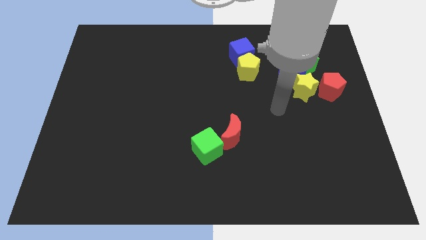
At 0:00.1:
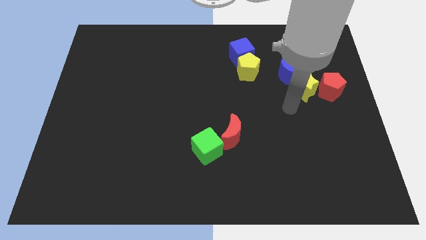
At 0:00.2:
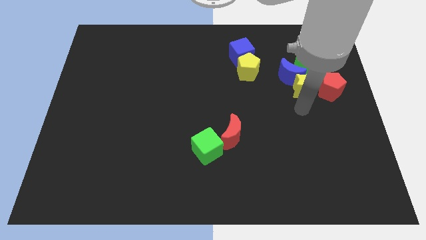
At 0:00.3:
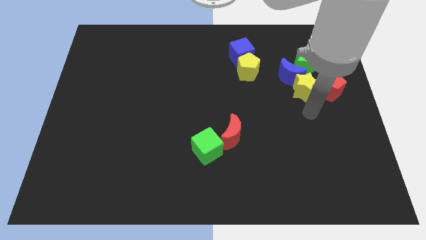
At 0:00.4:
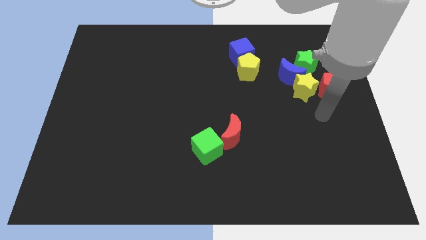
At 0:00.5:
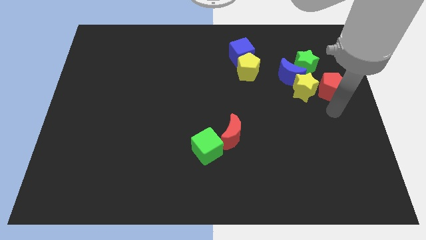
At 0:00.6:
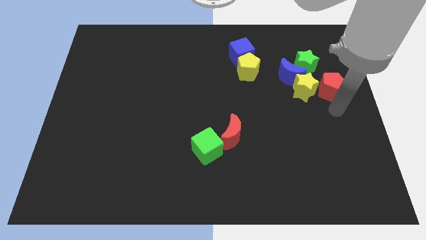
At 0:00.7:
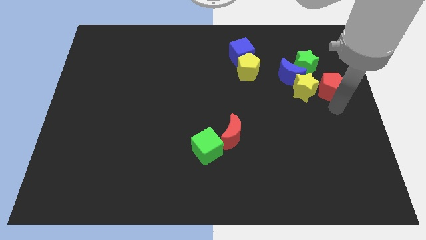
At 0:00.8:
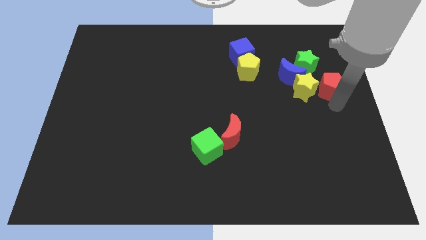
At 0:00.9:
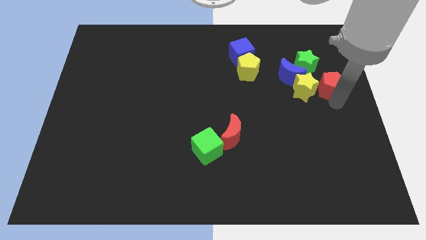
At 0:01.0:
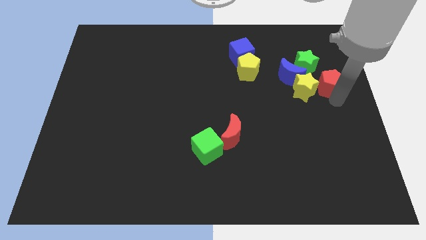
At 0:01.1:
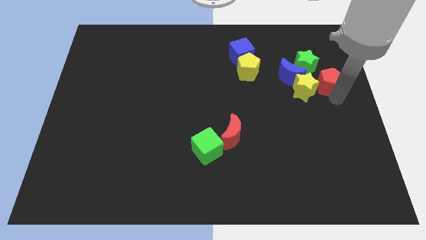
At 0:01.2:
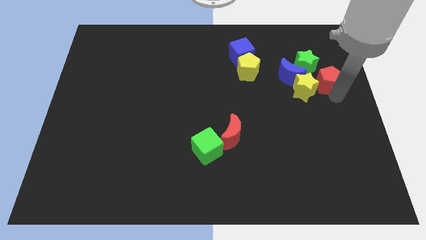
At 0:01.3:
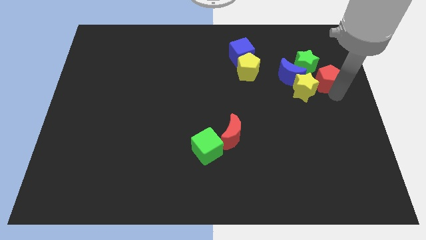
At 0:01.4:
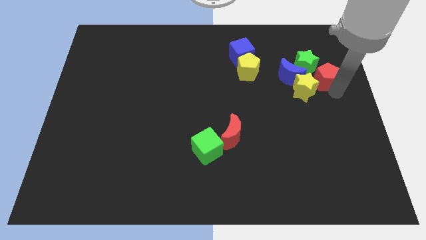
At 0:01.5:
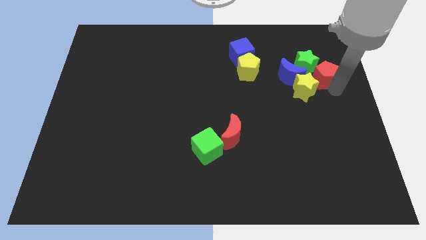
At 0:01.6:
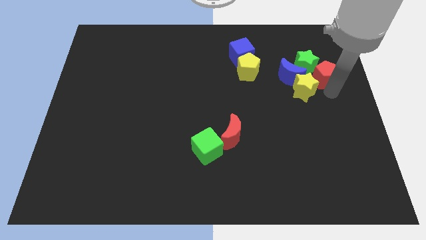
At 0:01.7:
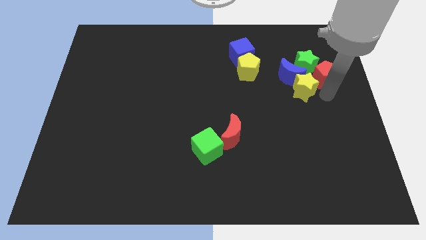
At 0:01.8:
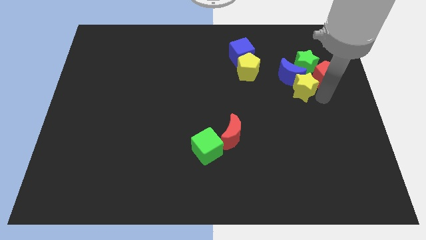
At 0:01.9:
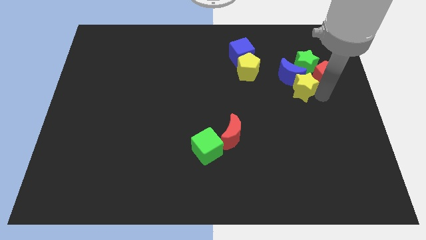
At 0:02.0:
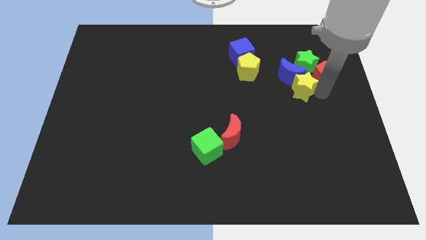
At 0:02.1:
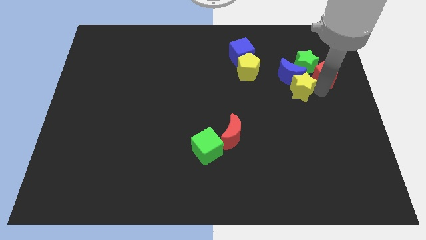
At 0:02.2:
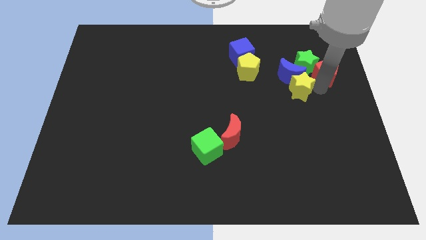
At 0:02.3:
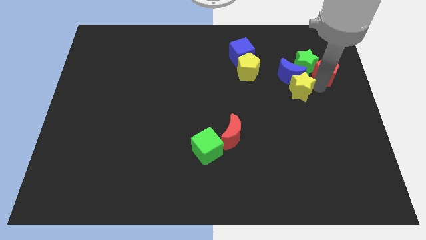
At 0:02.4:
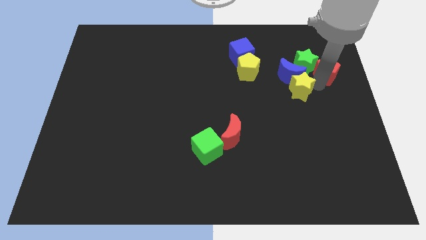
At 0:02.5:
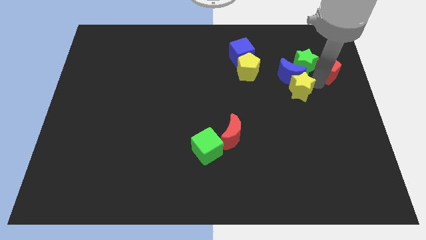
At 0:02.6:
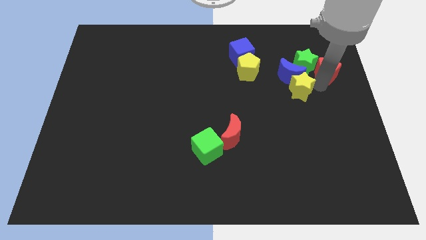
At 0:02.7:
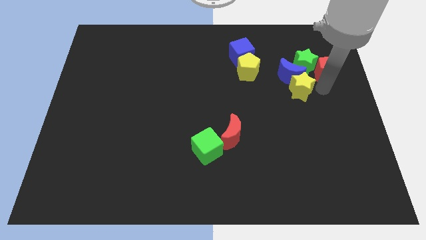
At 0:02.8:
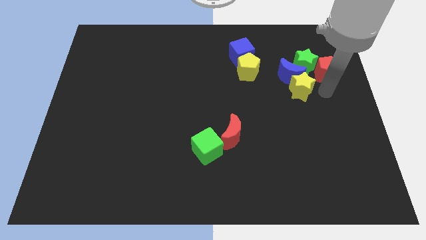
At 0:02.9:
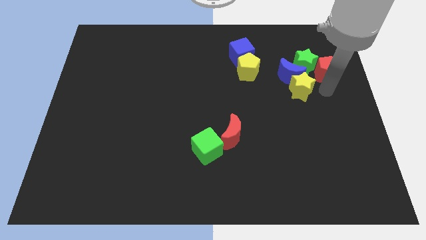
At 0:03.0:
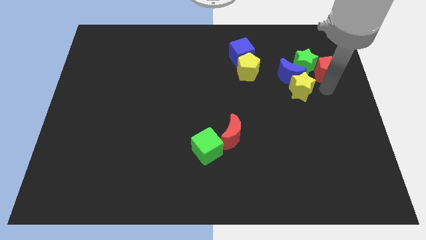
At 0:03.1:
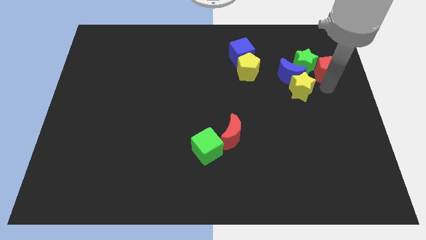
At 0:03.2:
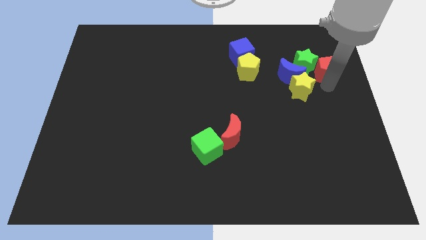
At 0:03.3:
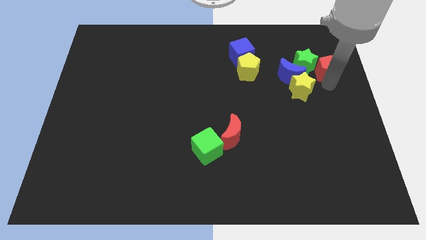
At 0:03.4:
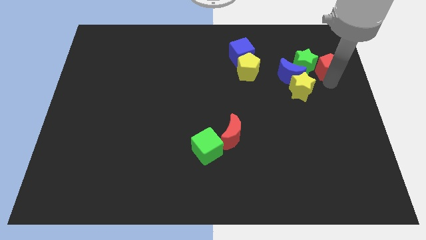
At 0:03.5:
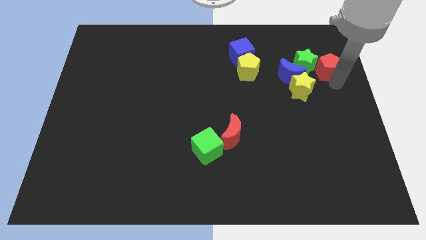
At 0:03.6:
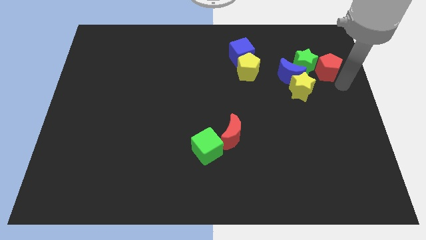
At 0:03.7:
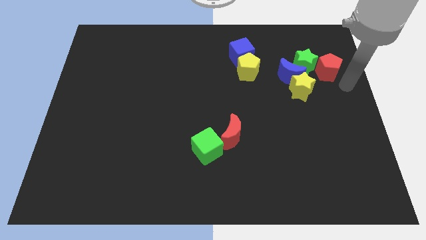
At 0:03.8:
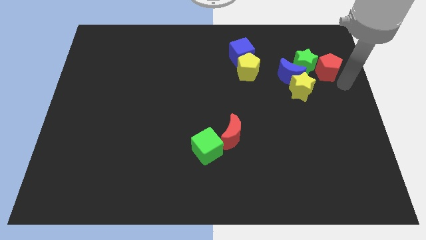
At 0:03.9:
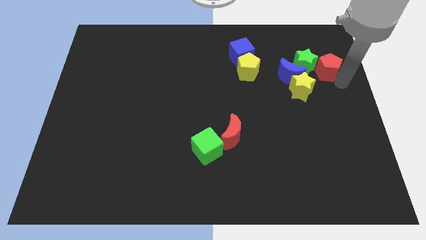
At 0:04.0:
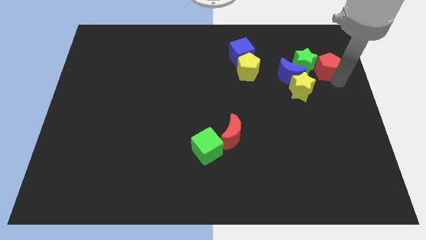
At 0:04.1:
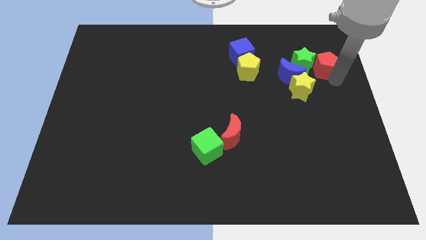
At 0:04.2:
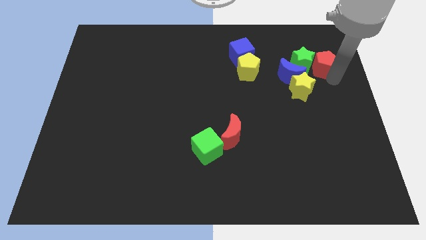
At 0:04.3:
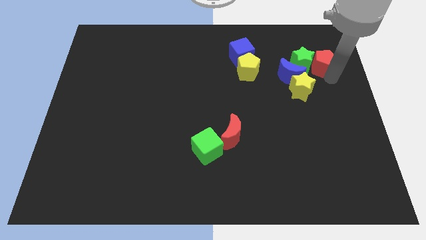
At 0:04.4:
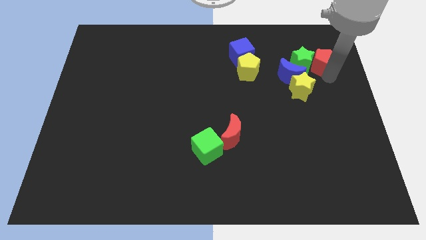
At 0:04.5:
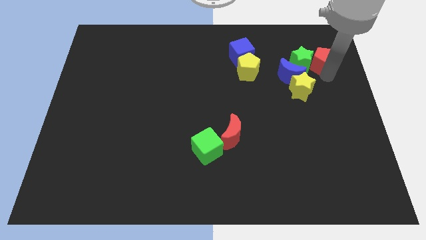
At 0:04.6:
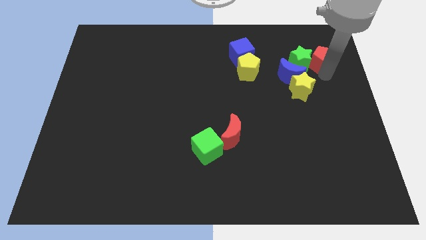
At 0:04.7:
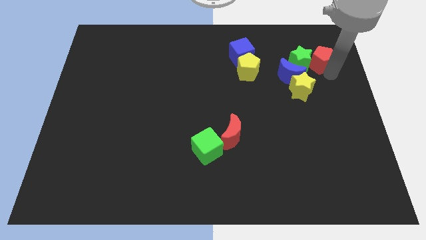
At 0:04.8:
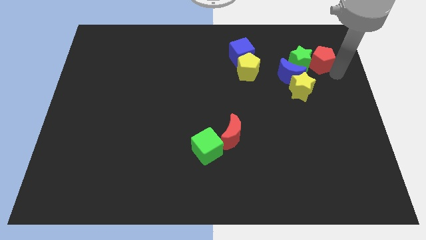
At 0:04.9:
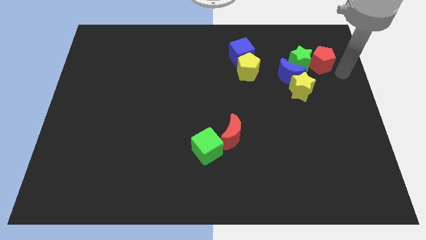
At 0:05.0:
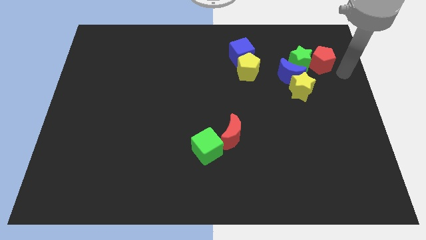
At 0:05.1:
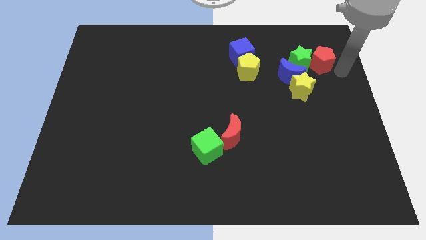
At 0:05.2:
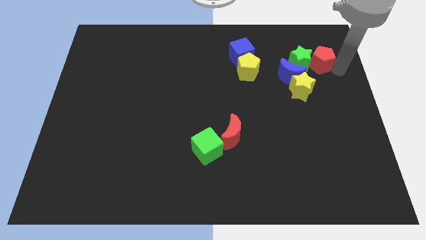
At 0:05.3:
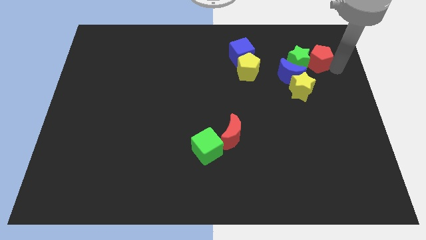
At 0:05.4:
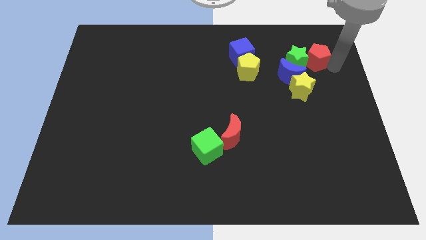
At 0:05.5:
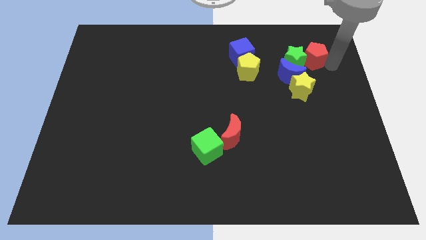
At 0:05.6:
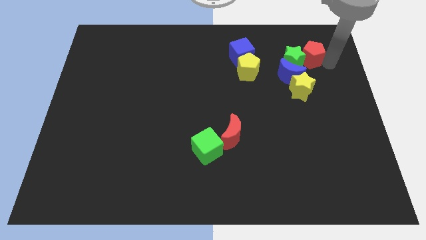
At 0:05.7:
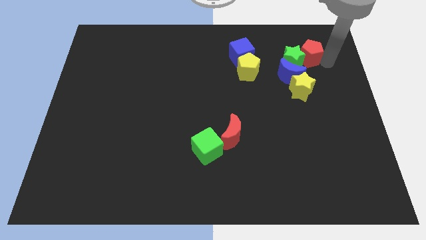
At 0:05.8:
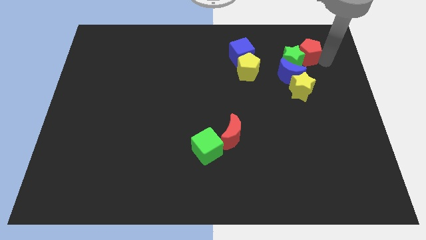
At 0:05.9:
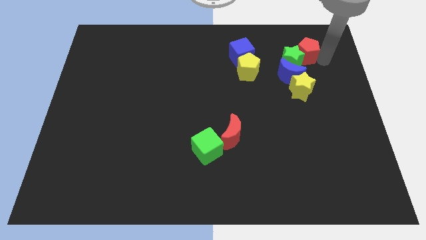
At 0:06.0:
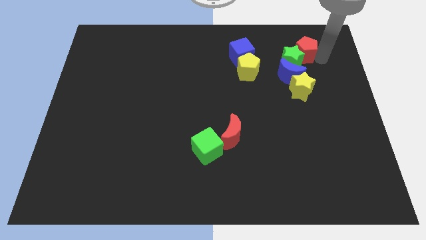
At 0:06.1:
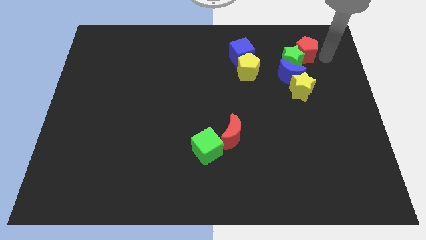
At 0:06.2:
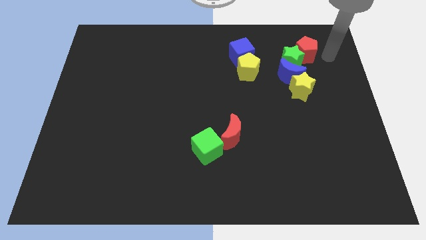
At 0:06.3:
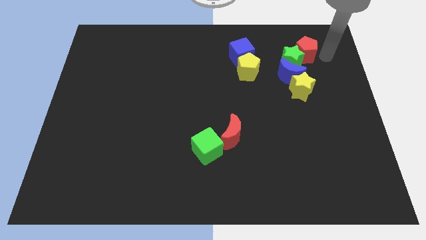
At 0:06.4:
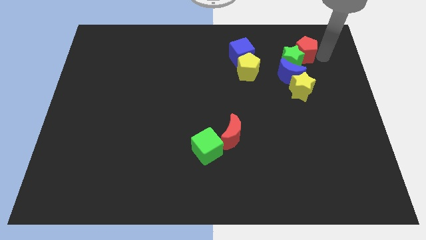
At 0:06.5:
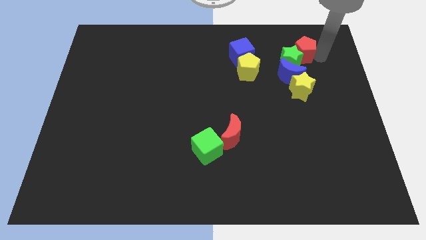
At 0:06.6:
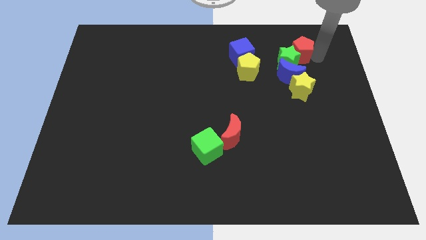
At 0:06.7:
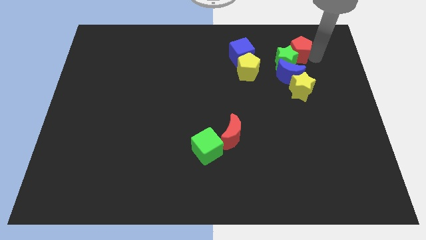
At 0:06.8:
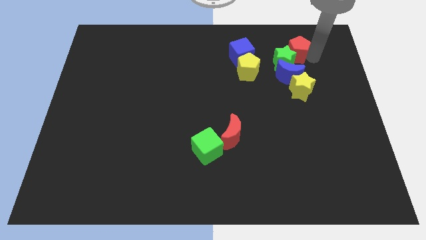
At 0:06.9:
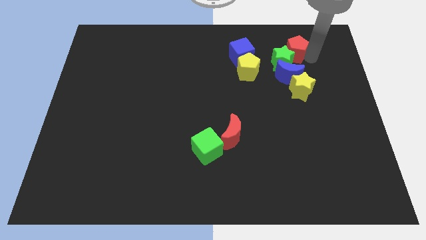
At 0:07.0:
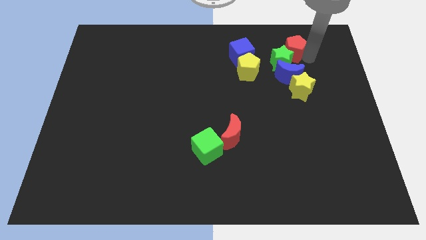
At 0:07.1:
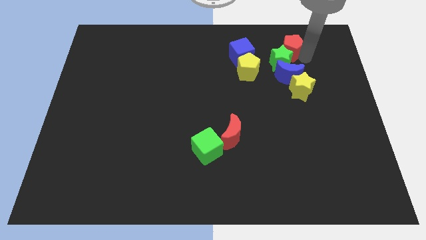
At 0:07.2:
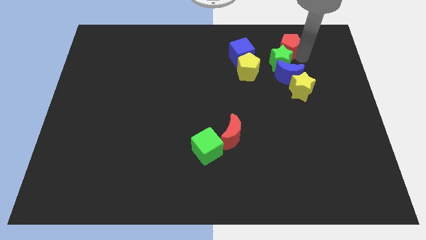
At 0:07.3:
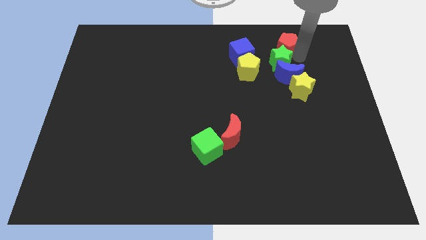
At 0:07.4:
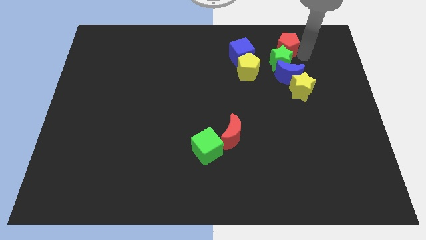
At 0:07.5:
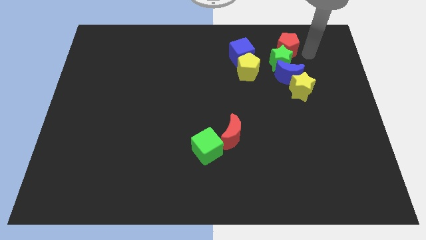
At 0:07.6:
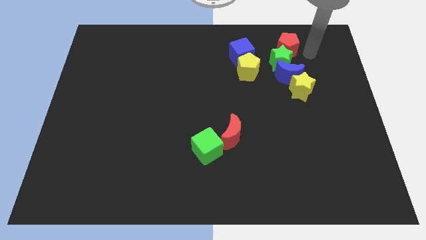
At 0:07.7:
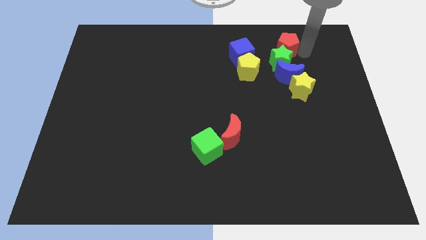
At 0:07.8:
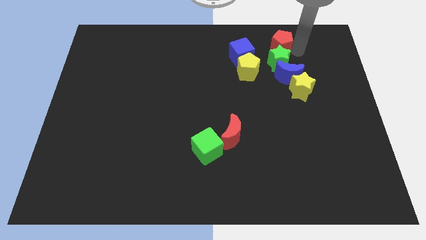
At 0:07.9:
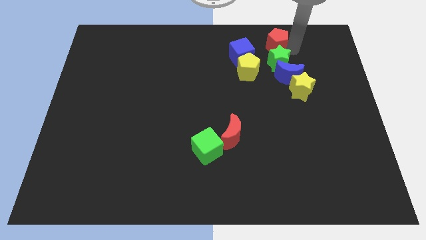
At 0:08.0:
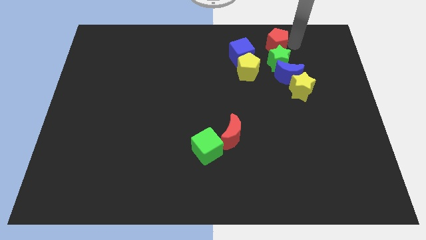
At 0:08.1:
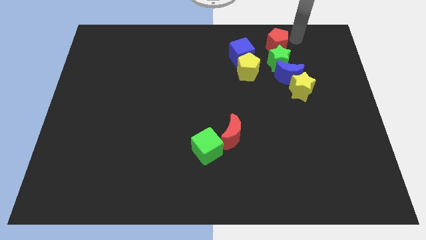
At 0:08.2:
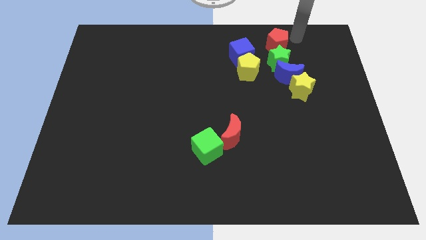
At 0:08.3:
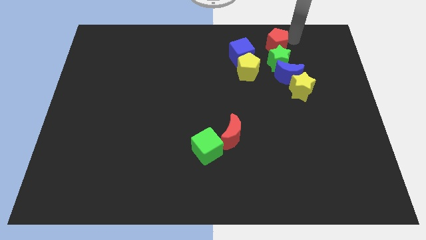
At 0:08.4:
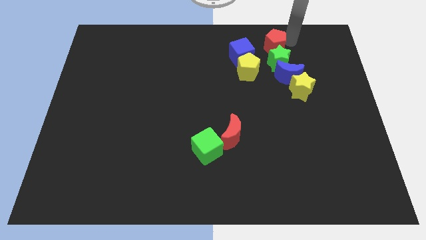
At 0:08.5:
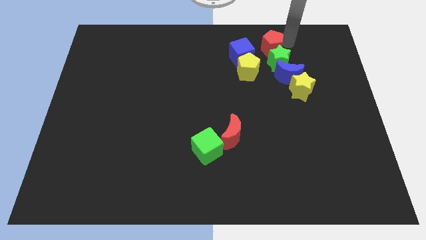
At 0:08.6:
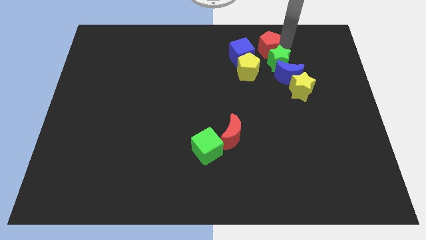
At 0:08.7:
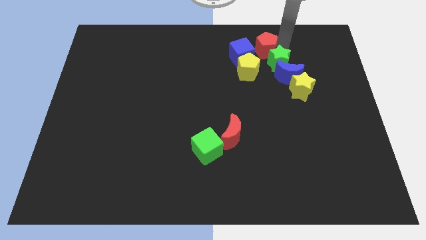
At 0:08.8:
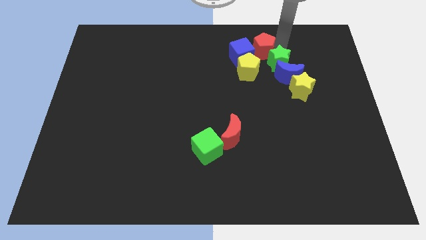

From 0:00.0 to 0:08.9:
slide the red pentagon next to the blue cube
